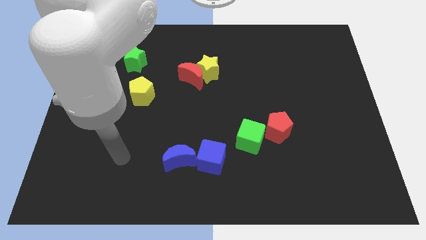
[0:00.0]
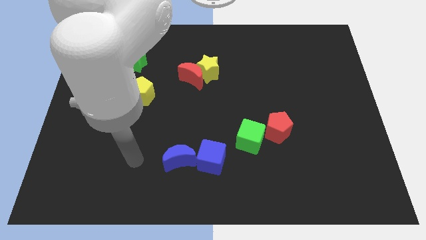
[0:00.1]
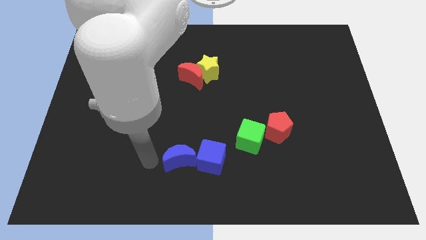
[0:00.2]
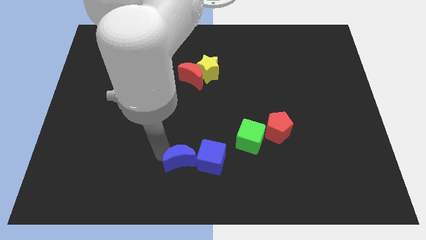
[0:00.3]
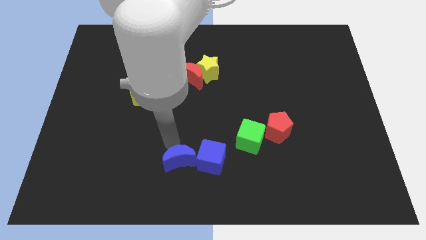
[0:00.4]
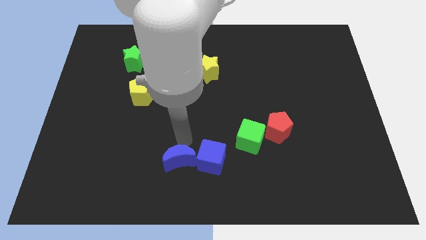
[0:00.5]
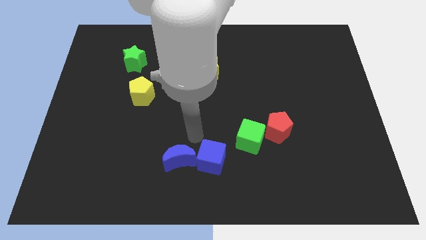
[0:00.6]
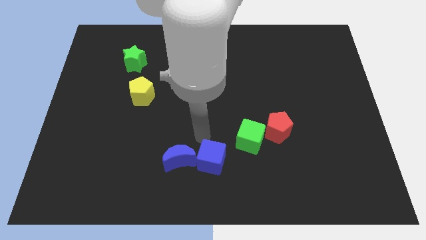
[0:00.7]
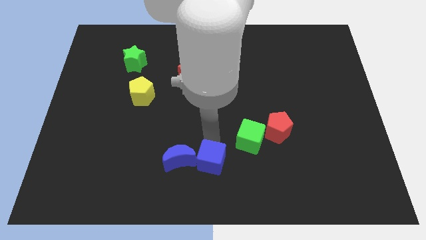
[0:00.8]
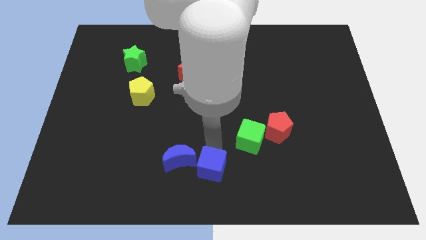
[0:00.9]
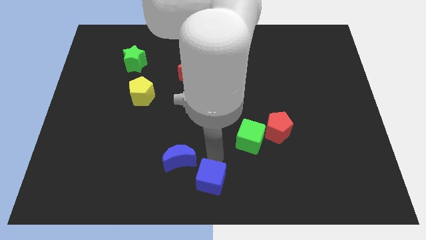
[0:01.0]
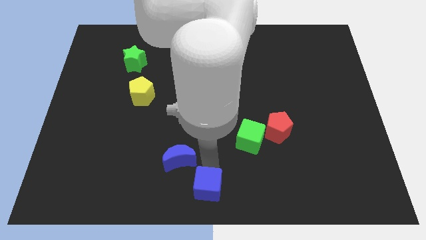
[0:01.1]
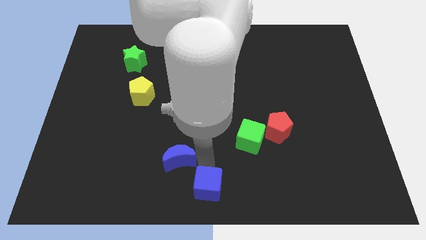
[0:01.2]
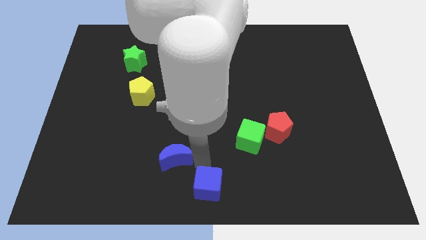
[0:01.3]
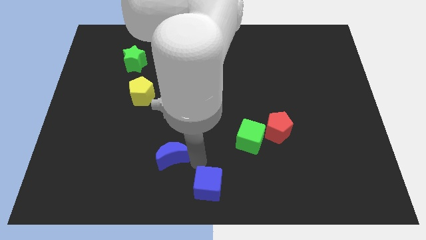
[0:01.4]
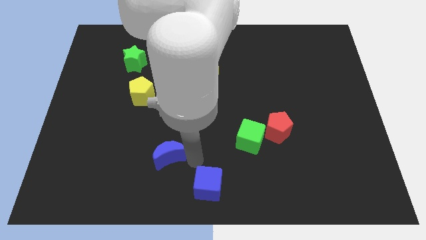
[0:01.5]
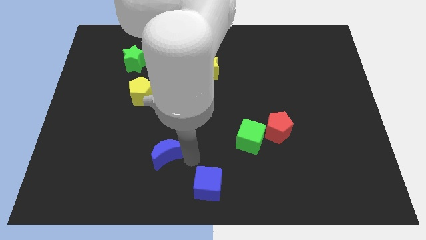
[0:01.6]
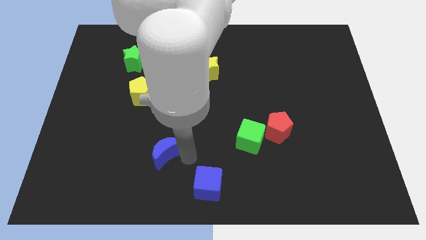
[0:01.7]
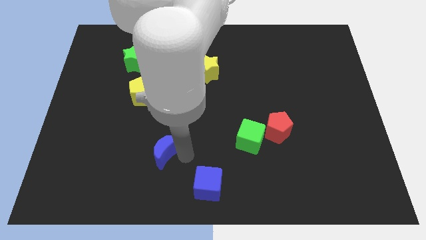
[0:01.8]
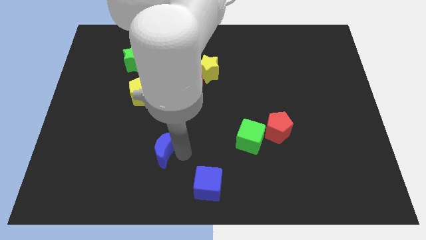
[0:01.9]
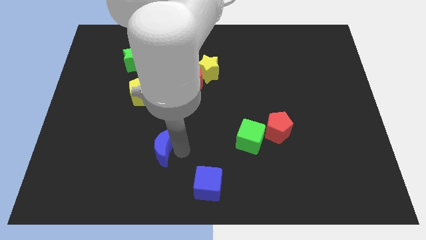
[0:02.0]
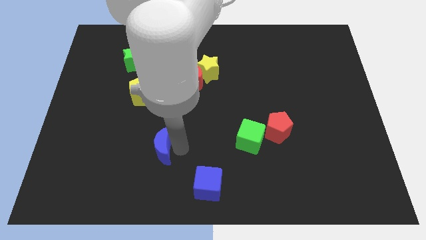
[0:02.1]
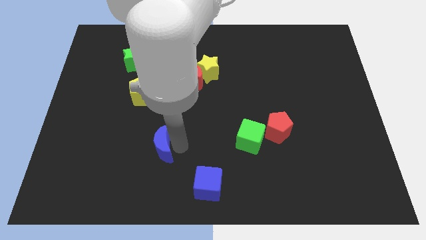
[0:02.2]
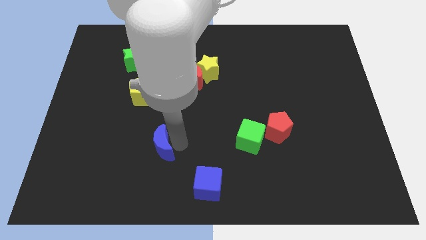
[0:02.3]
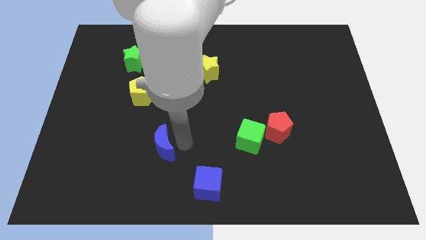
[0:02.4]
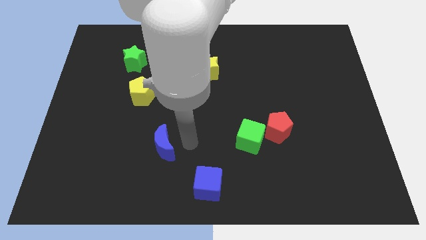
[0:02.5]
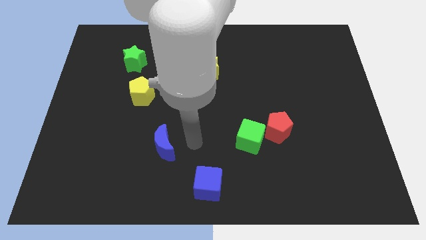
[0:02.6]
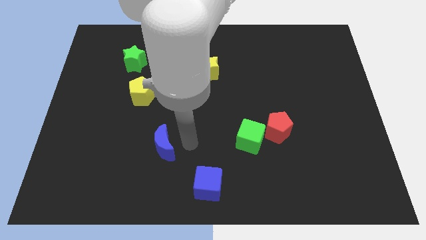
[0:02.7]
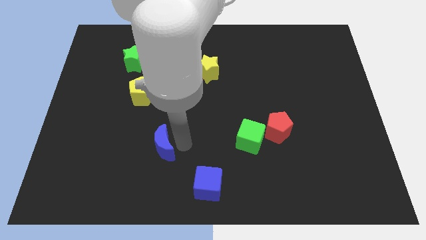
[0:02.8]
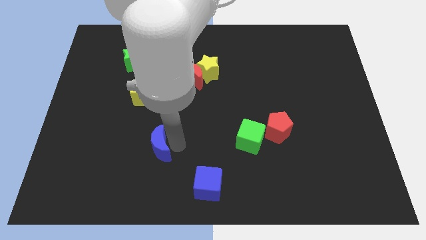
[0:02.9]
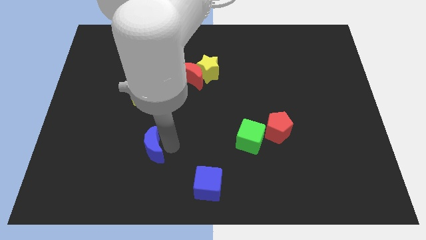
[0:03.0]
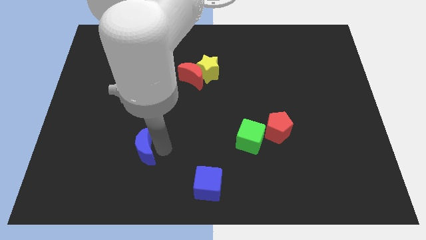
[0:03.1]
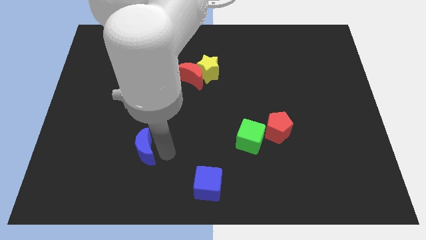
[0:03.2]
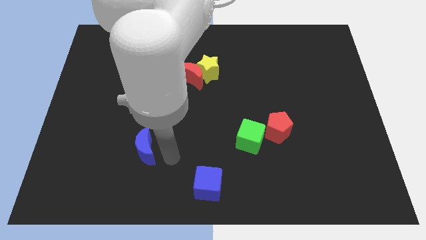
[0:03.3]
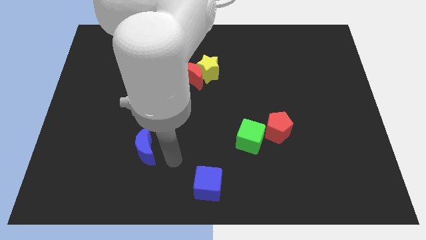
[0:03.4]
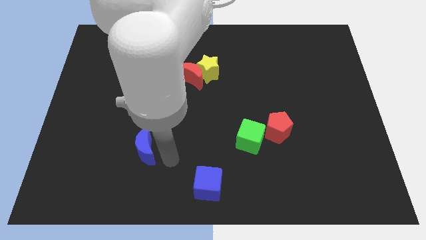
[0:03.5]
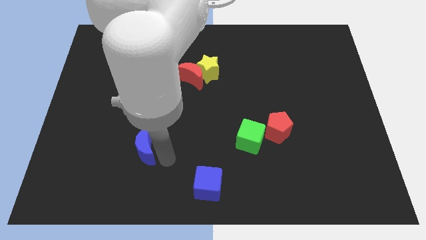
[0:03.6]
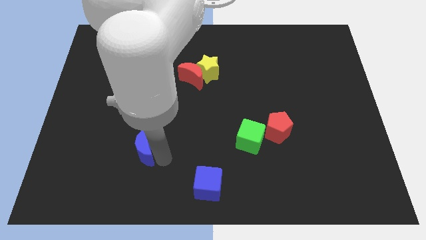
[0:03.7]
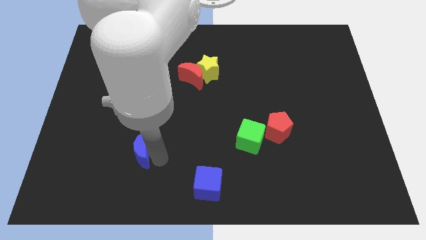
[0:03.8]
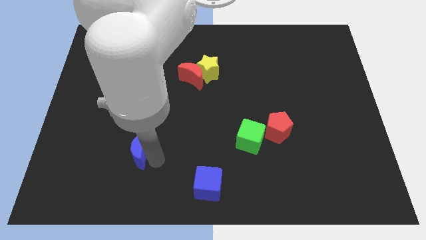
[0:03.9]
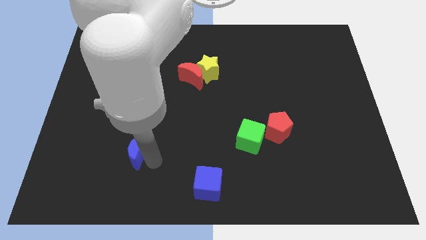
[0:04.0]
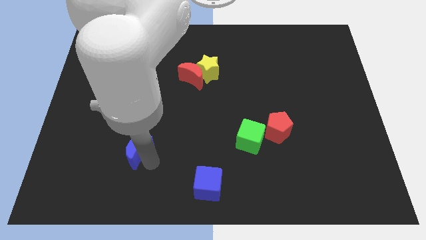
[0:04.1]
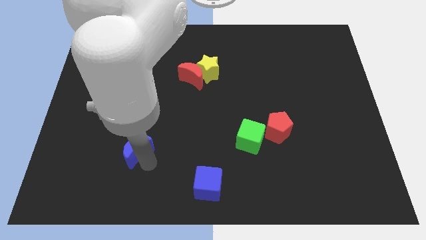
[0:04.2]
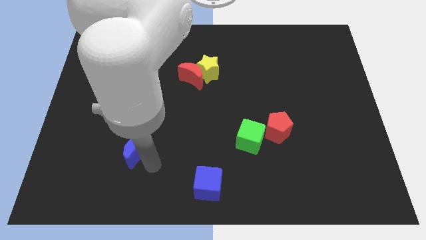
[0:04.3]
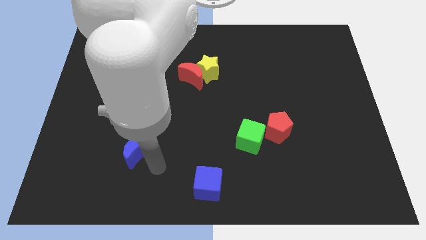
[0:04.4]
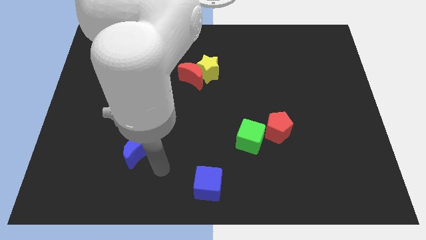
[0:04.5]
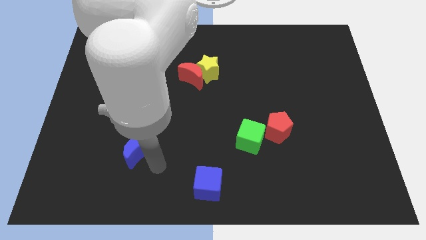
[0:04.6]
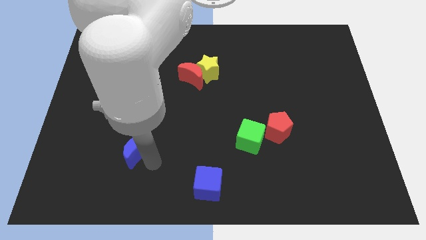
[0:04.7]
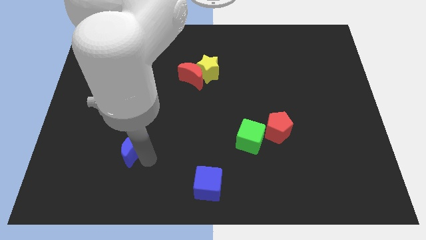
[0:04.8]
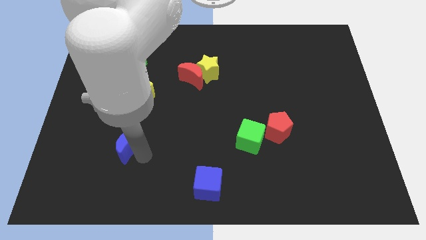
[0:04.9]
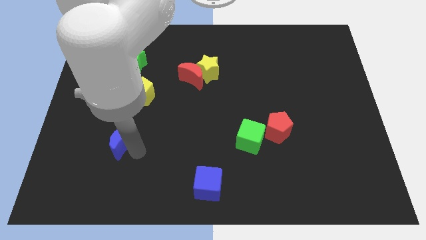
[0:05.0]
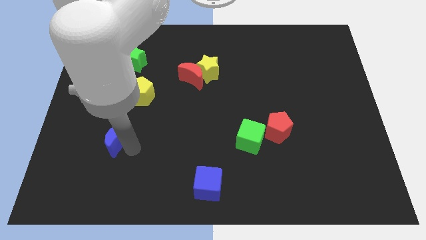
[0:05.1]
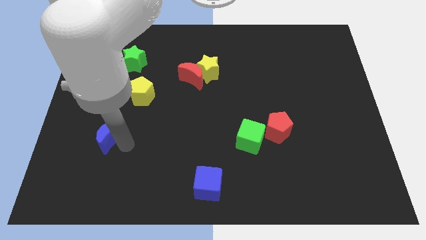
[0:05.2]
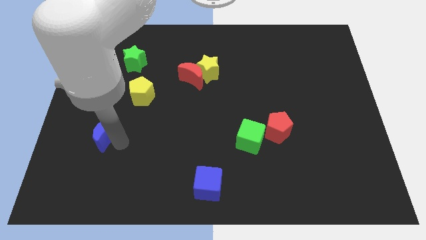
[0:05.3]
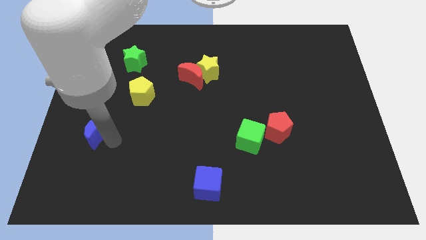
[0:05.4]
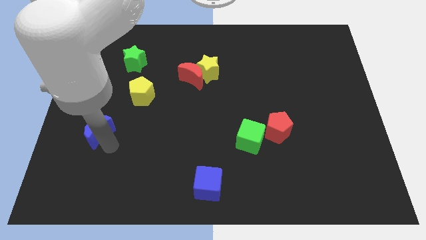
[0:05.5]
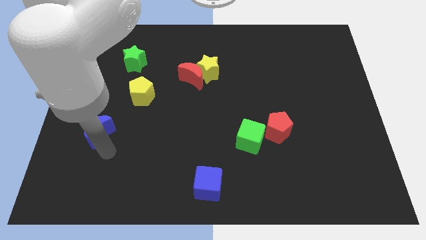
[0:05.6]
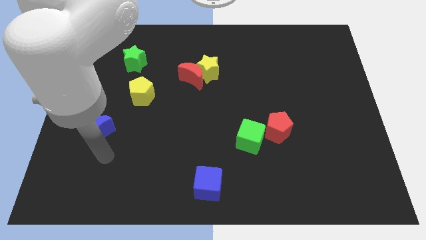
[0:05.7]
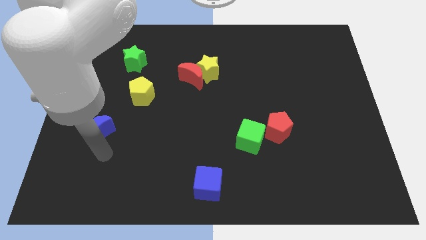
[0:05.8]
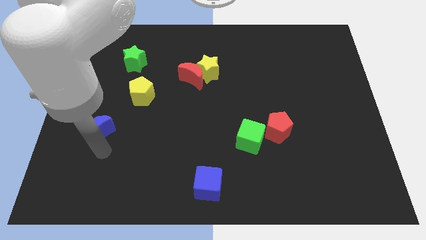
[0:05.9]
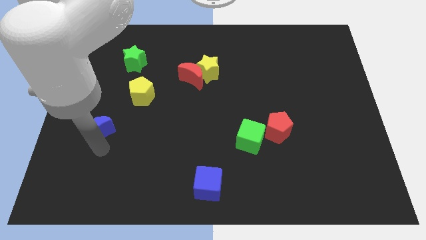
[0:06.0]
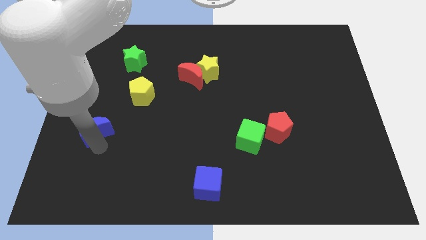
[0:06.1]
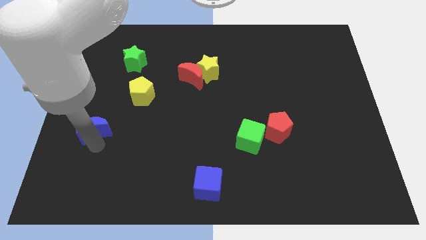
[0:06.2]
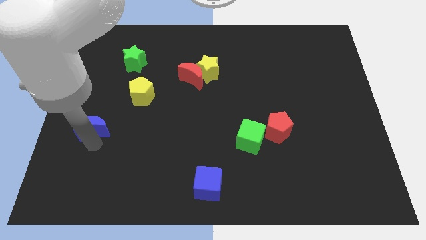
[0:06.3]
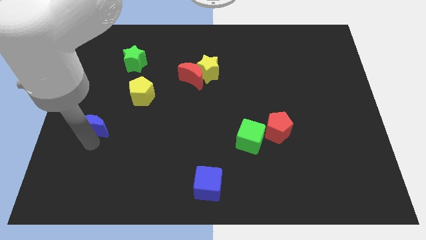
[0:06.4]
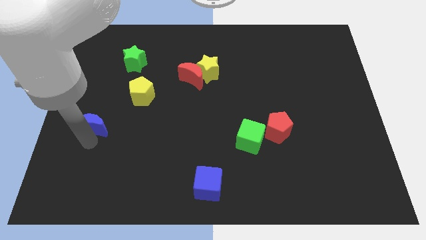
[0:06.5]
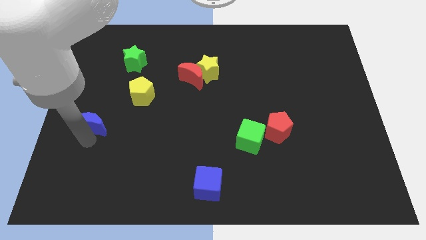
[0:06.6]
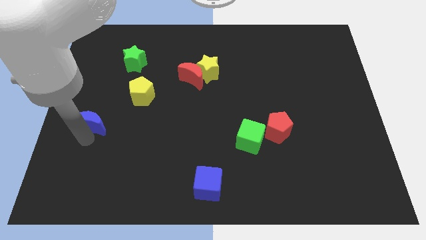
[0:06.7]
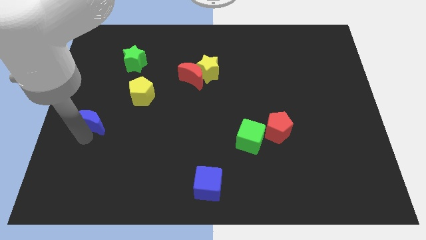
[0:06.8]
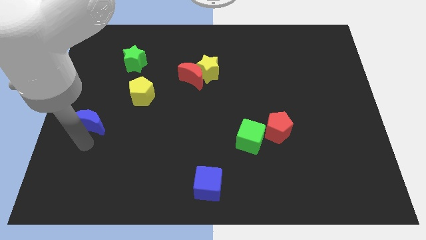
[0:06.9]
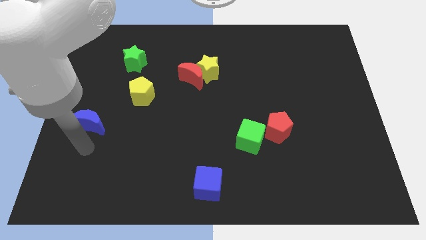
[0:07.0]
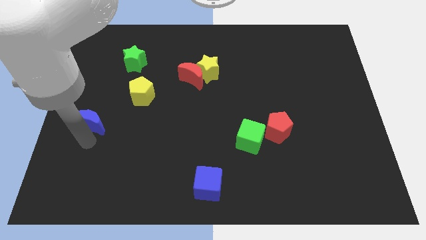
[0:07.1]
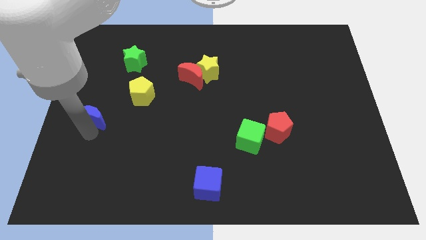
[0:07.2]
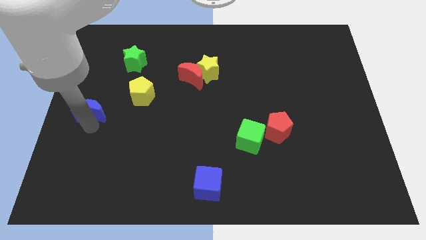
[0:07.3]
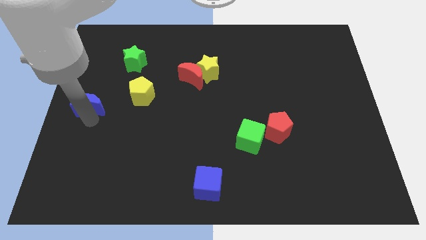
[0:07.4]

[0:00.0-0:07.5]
push the blue moon to the left side of the yellow pentagon

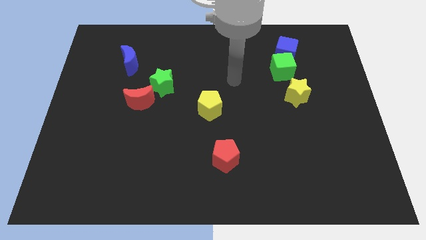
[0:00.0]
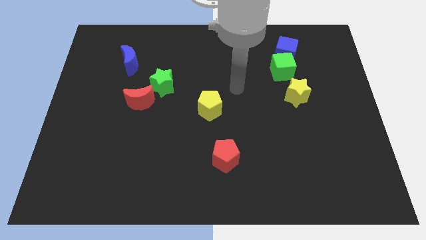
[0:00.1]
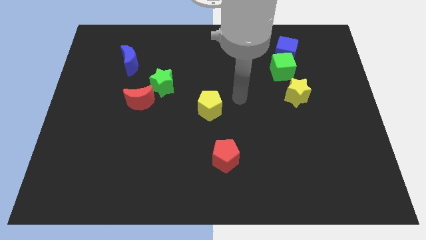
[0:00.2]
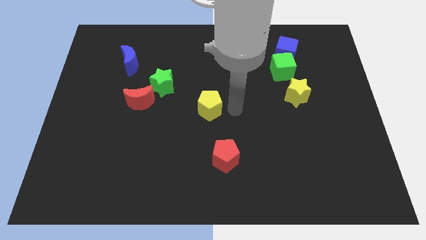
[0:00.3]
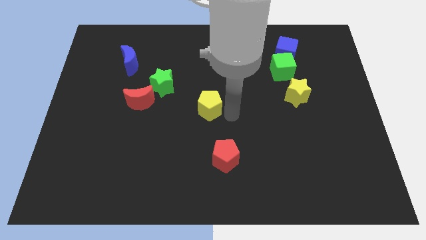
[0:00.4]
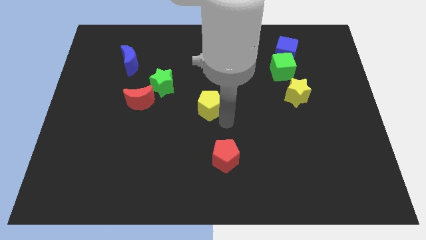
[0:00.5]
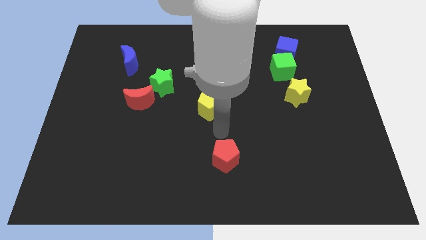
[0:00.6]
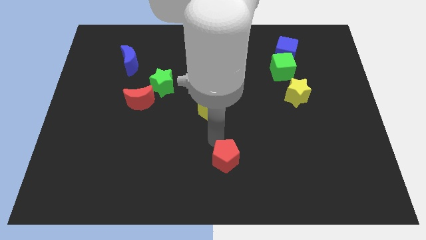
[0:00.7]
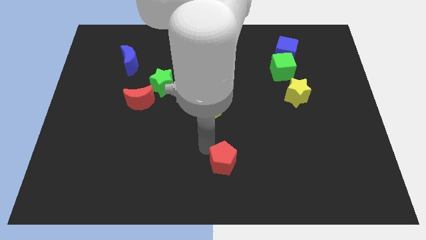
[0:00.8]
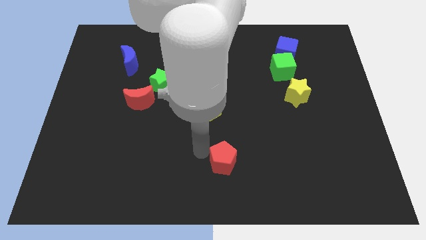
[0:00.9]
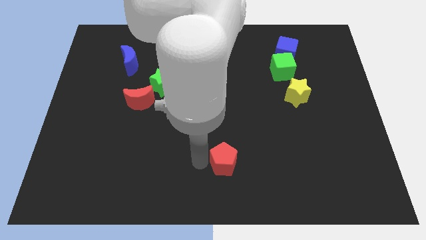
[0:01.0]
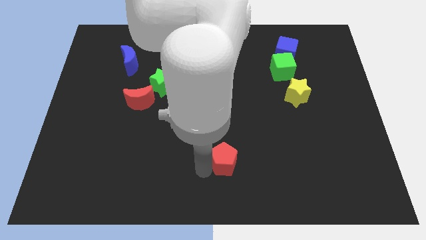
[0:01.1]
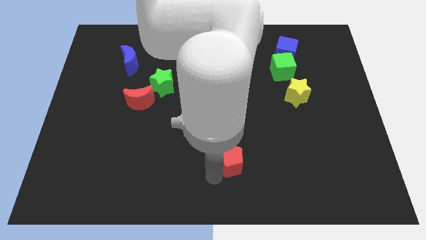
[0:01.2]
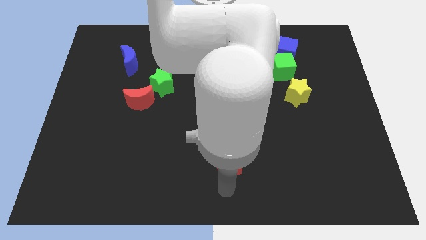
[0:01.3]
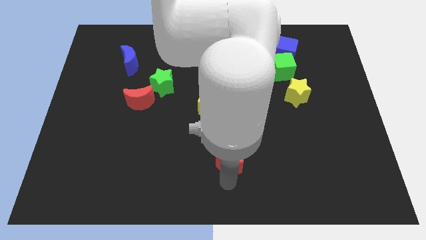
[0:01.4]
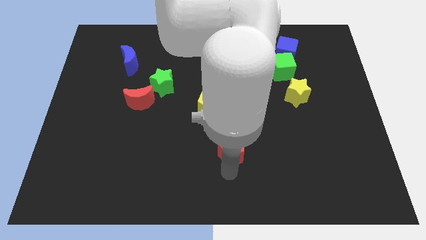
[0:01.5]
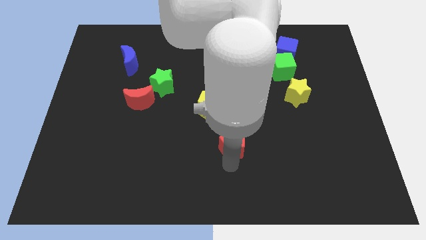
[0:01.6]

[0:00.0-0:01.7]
put the red pentagon to the bottom right side of the yellow pentagon
